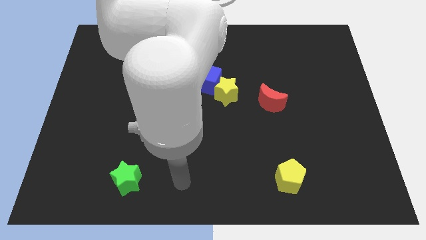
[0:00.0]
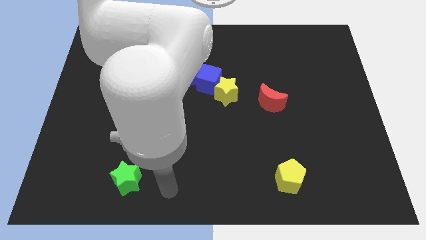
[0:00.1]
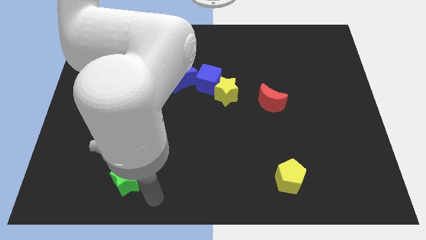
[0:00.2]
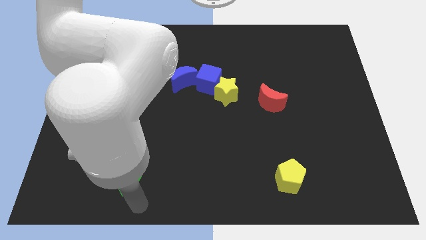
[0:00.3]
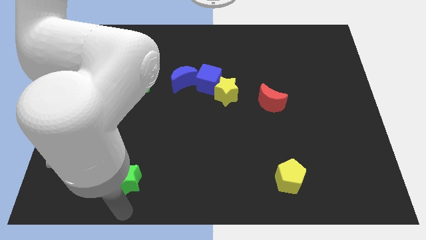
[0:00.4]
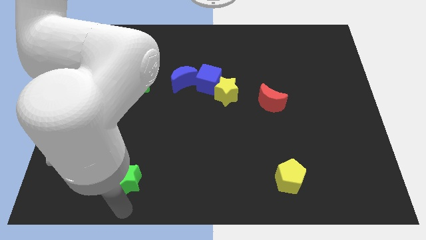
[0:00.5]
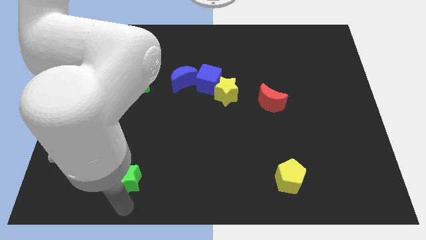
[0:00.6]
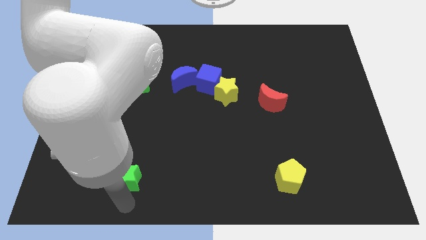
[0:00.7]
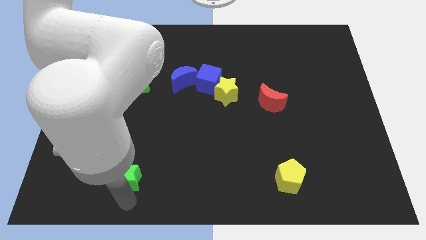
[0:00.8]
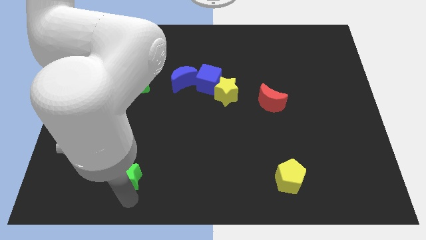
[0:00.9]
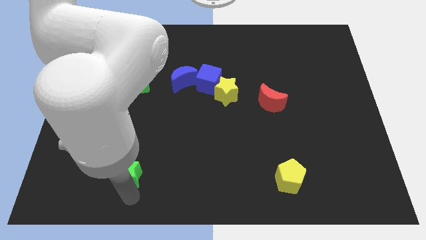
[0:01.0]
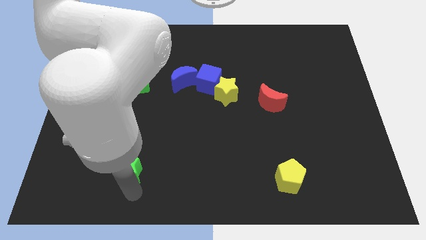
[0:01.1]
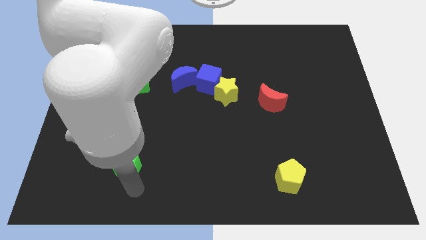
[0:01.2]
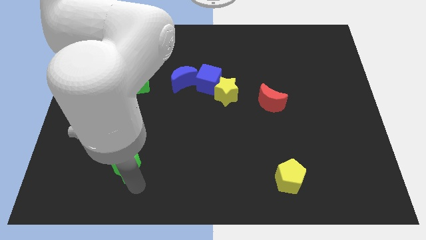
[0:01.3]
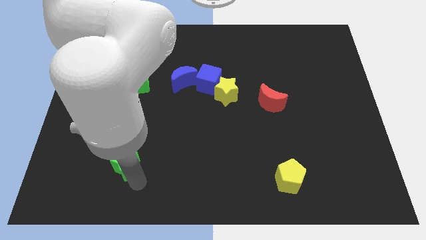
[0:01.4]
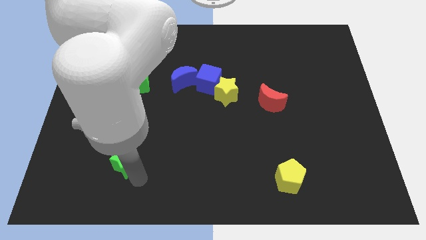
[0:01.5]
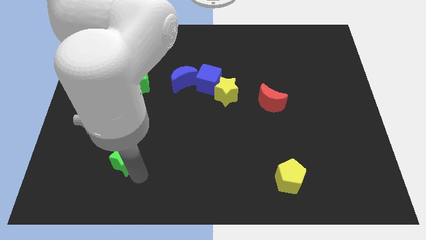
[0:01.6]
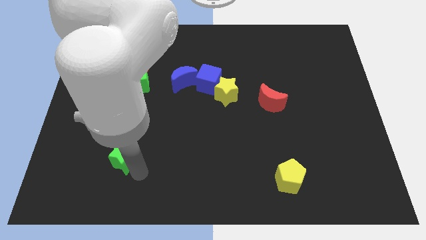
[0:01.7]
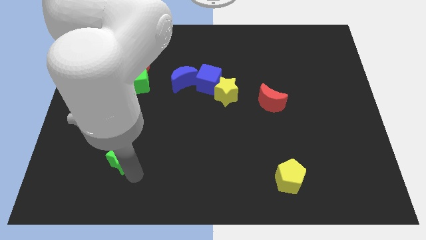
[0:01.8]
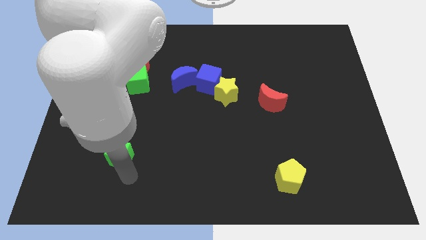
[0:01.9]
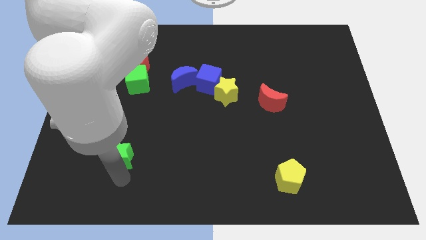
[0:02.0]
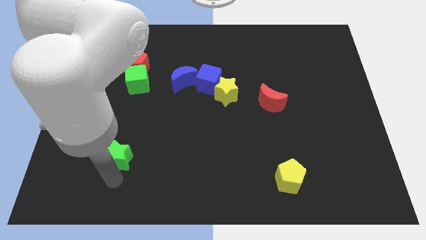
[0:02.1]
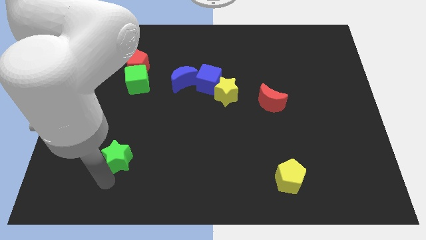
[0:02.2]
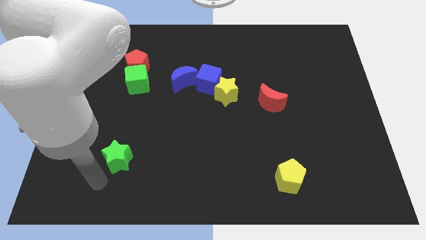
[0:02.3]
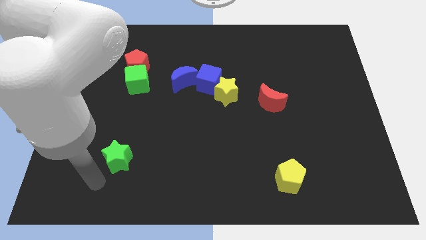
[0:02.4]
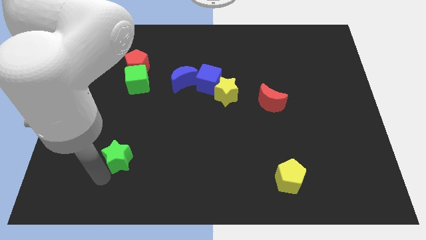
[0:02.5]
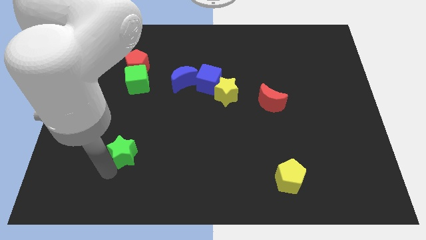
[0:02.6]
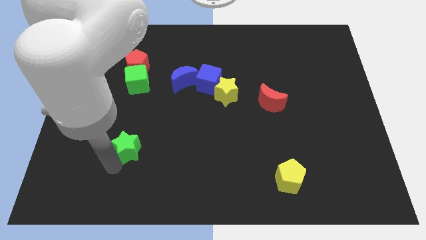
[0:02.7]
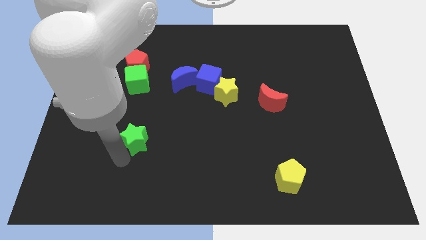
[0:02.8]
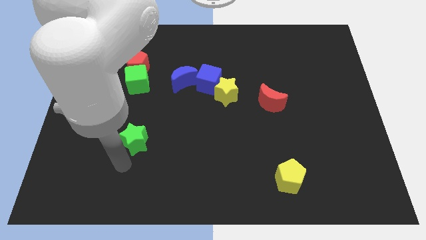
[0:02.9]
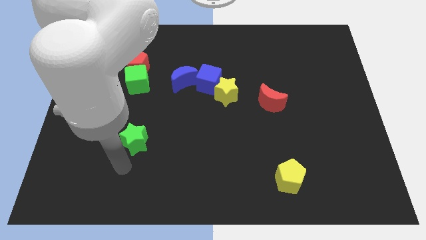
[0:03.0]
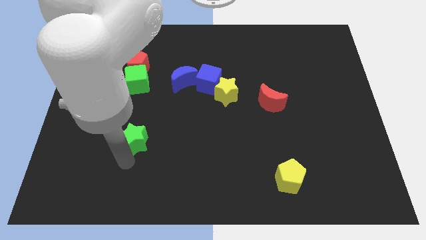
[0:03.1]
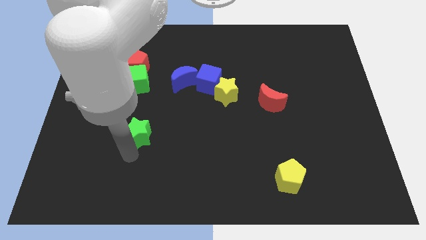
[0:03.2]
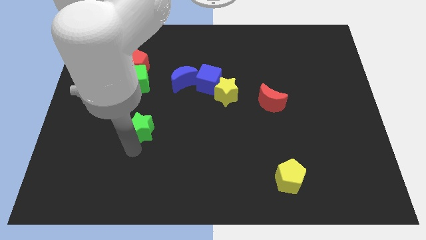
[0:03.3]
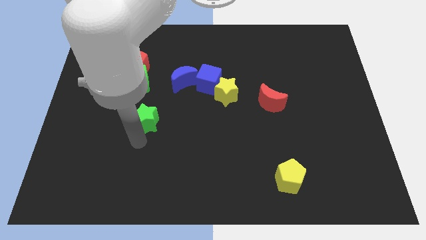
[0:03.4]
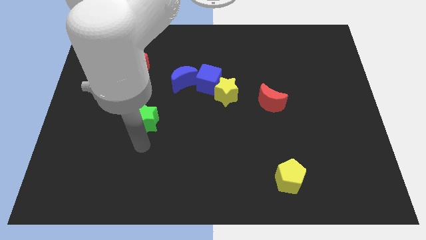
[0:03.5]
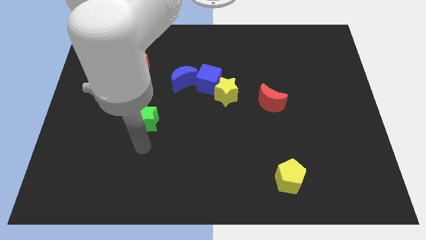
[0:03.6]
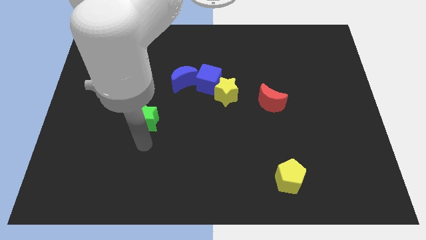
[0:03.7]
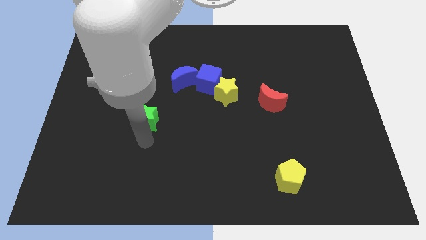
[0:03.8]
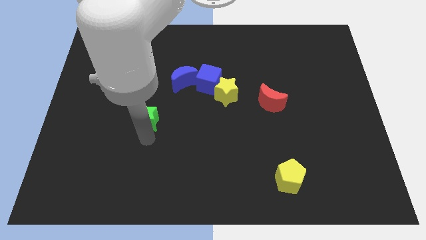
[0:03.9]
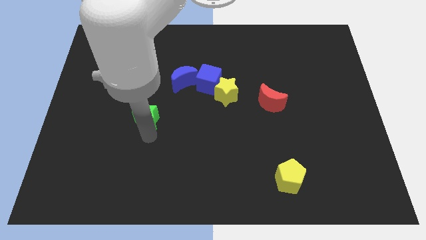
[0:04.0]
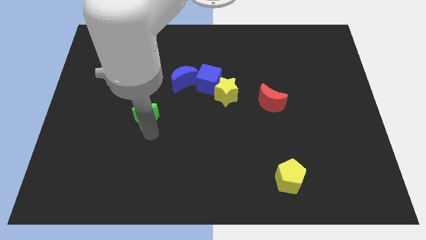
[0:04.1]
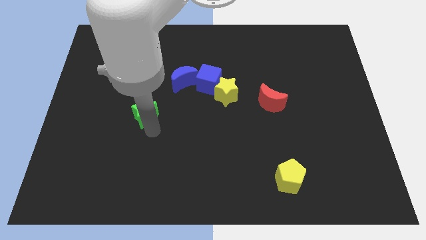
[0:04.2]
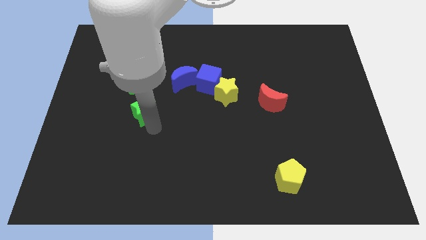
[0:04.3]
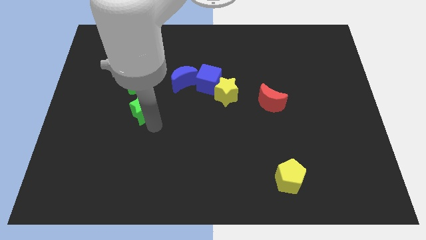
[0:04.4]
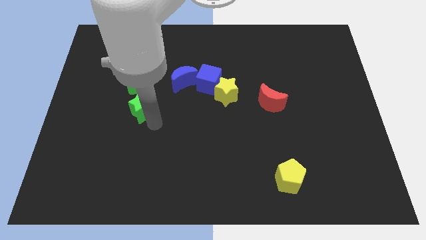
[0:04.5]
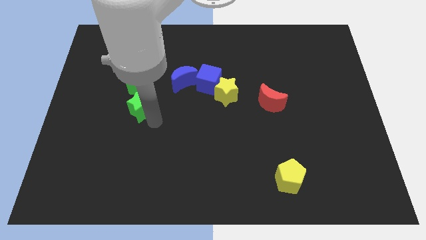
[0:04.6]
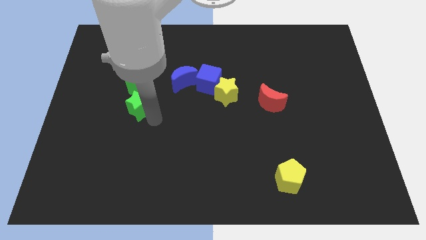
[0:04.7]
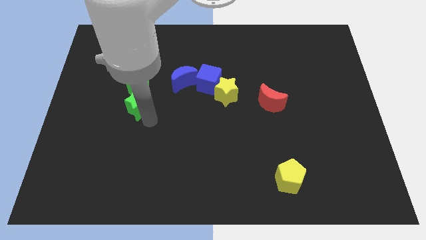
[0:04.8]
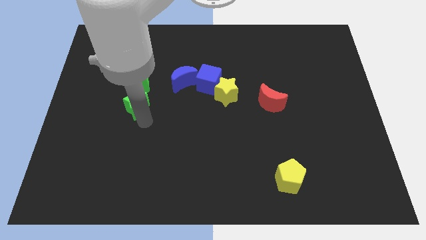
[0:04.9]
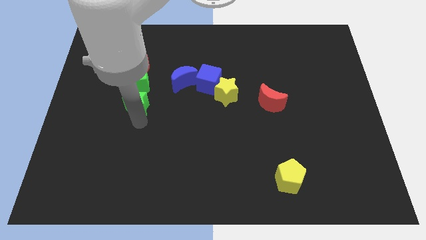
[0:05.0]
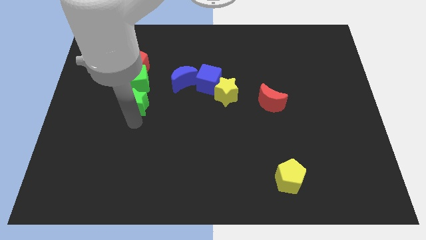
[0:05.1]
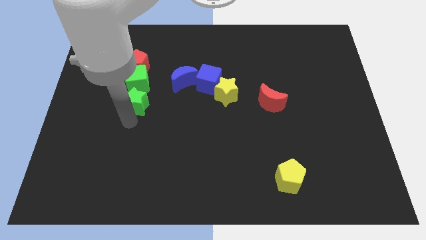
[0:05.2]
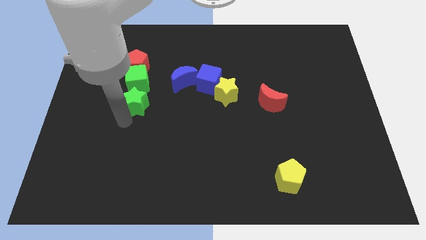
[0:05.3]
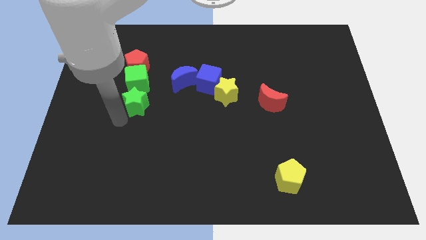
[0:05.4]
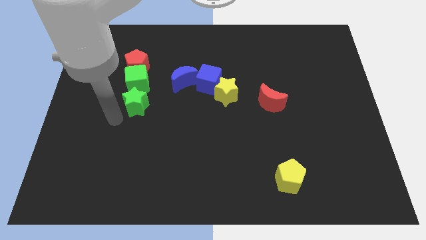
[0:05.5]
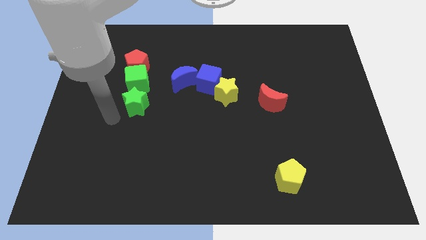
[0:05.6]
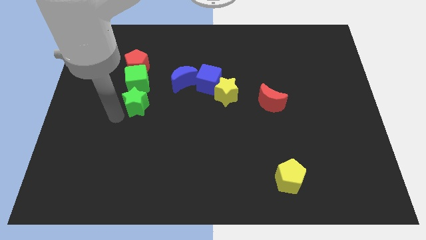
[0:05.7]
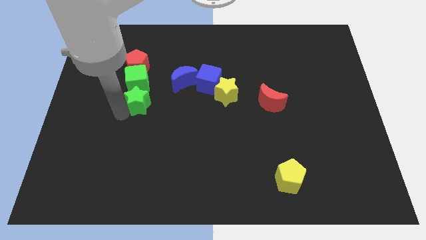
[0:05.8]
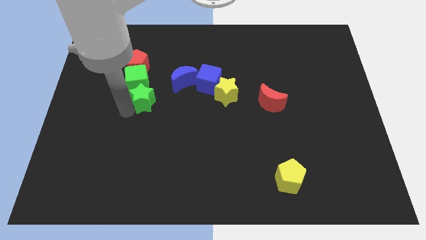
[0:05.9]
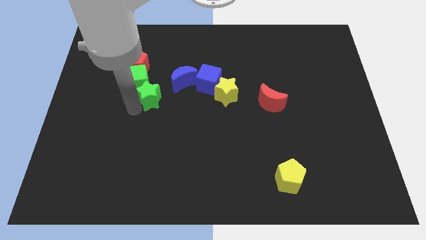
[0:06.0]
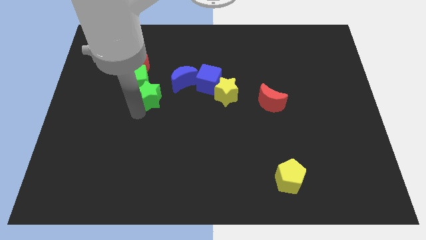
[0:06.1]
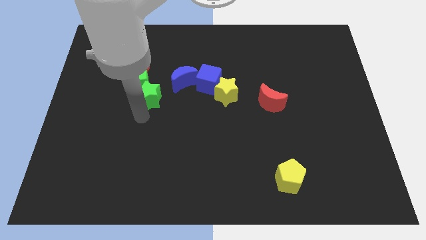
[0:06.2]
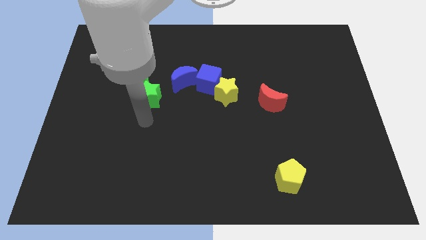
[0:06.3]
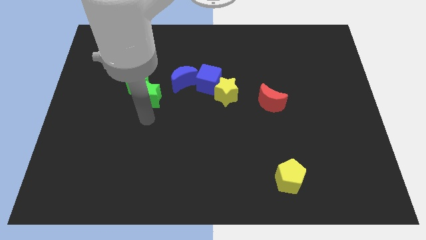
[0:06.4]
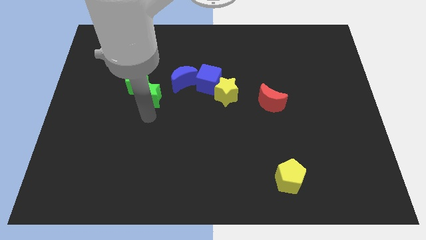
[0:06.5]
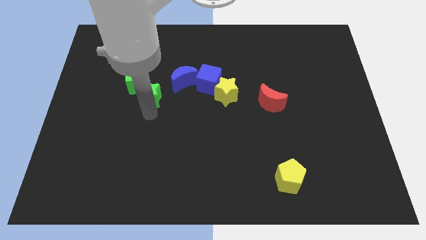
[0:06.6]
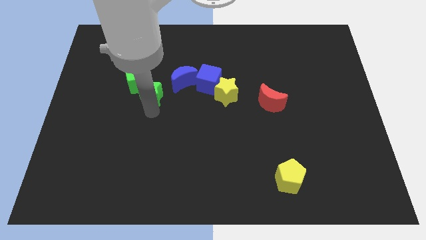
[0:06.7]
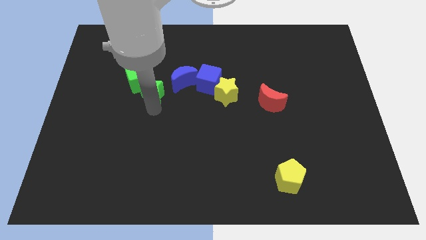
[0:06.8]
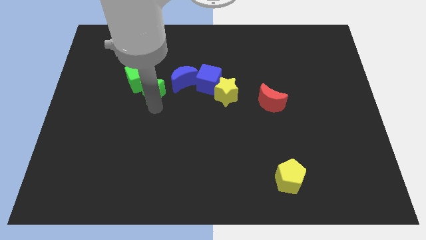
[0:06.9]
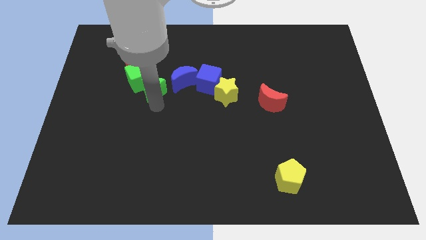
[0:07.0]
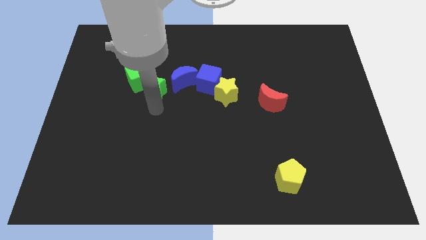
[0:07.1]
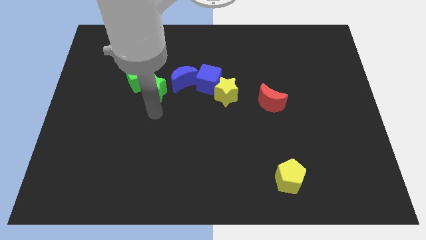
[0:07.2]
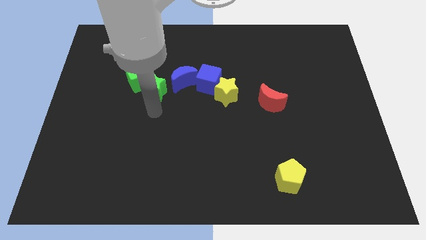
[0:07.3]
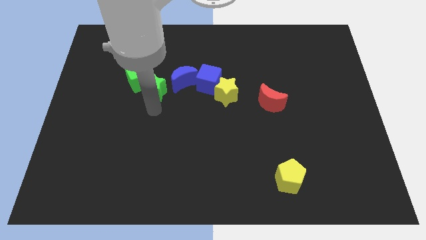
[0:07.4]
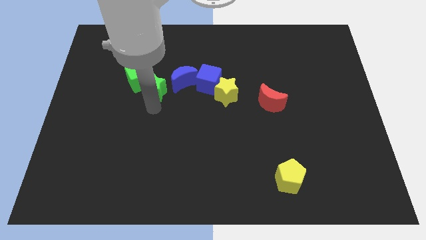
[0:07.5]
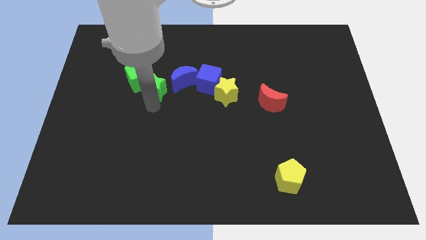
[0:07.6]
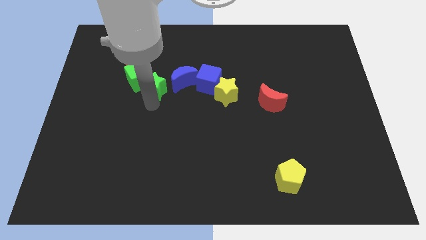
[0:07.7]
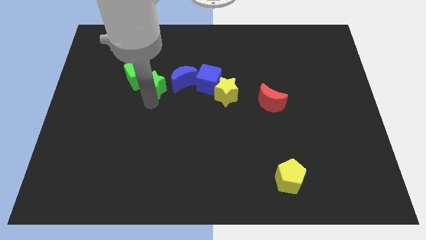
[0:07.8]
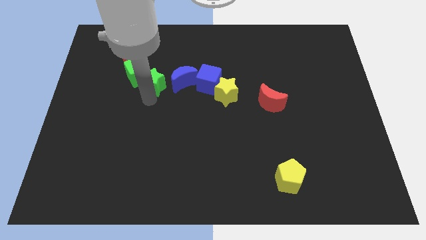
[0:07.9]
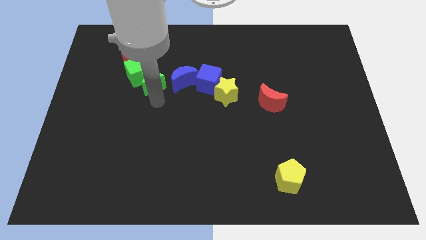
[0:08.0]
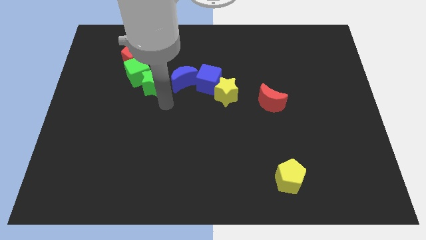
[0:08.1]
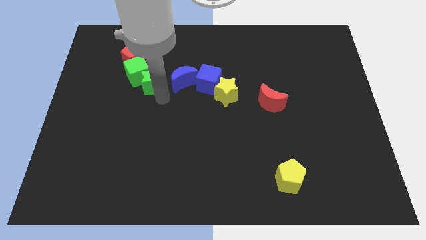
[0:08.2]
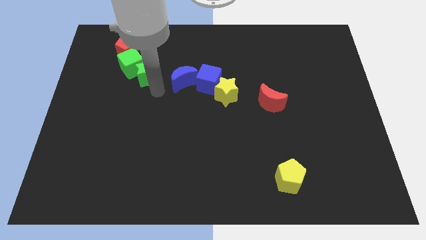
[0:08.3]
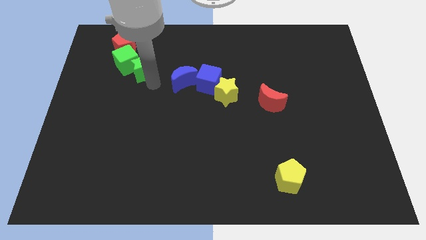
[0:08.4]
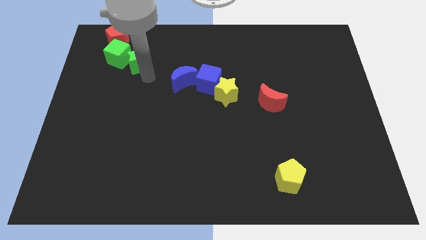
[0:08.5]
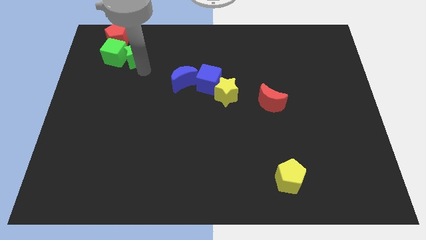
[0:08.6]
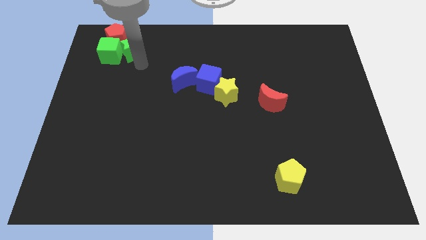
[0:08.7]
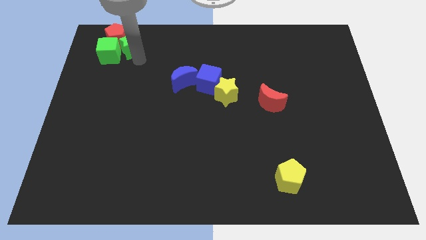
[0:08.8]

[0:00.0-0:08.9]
put the green star towards the red pentagon
